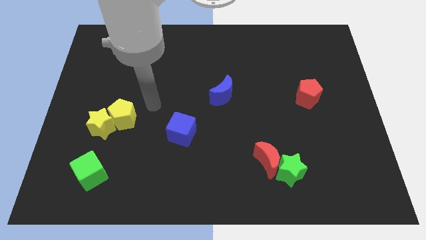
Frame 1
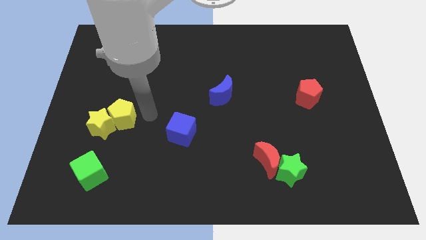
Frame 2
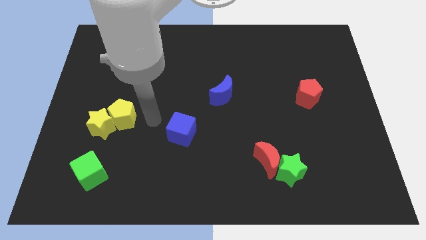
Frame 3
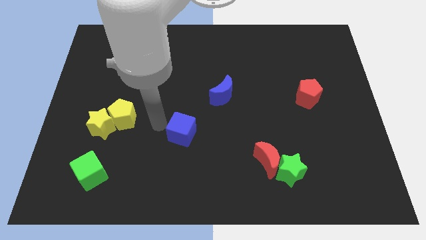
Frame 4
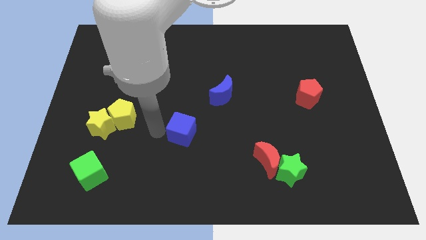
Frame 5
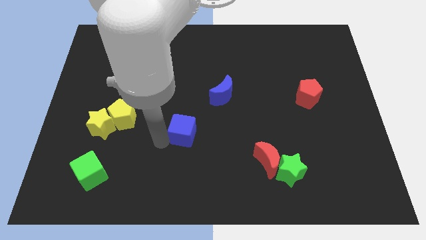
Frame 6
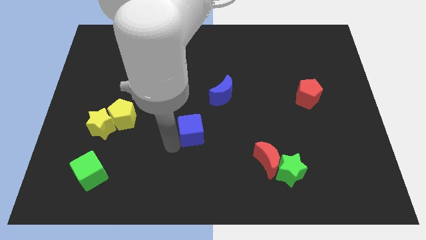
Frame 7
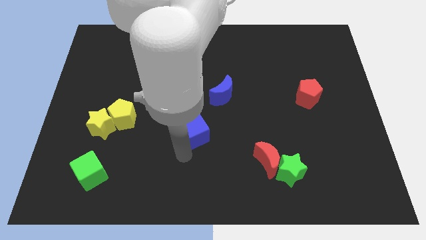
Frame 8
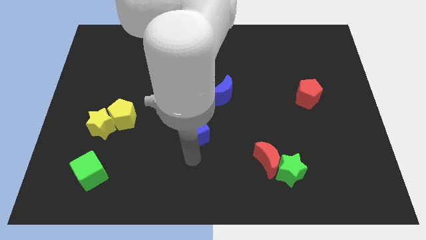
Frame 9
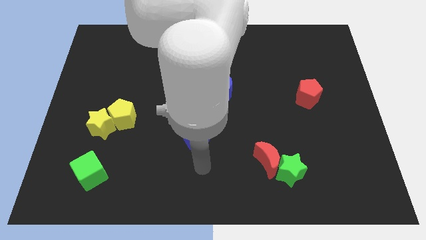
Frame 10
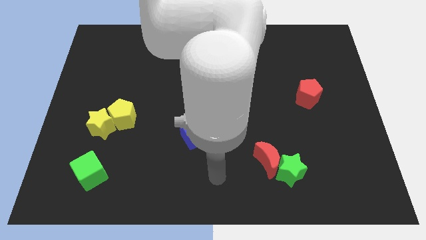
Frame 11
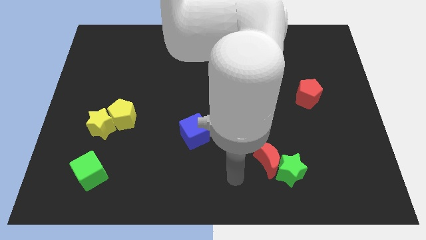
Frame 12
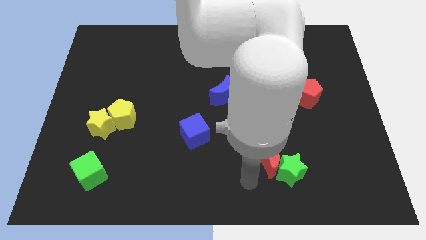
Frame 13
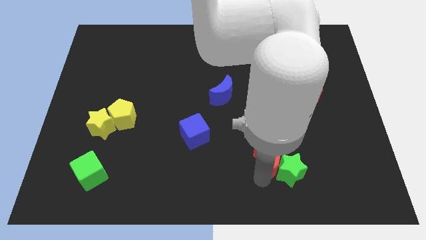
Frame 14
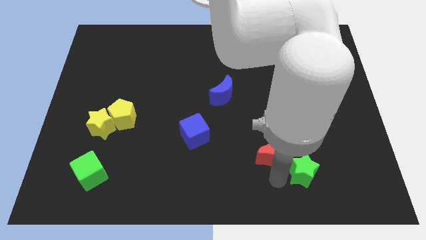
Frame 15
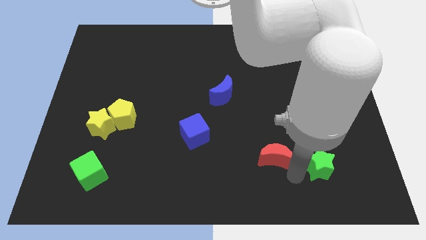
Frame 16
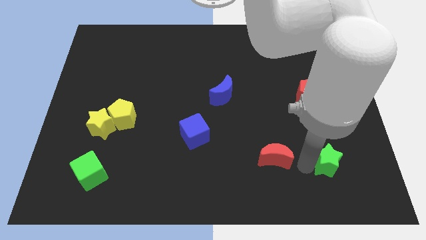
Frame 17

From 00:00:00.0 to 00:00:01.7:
separate the red moon from the green star

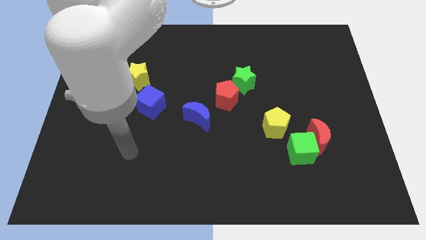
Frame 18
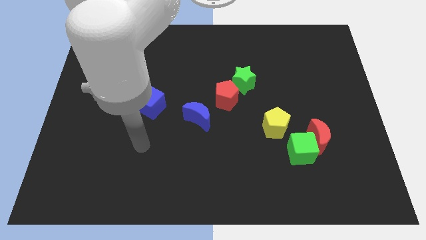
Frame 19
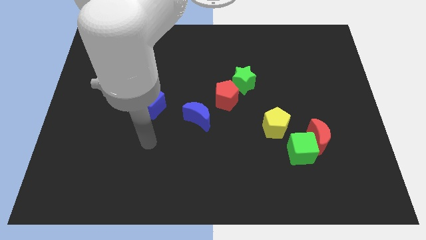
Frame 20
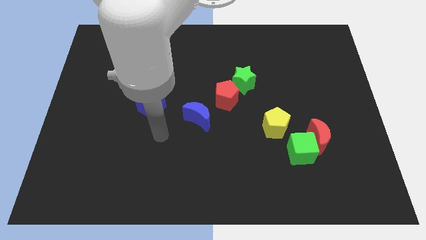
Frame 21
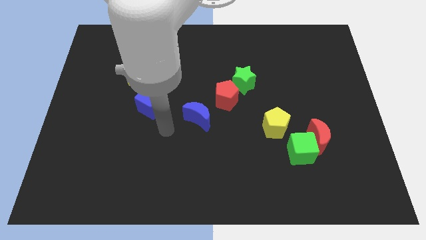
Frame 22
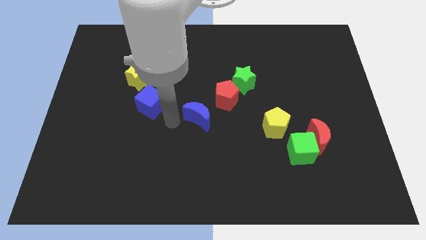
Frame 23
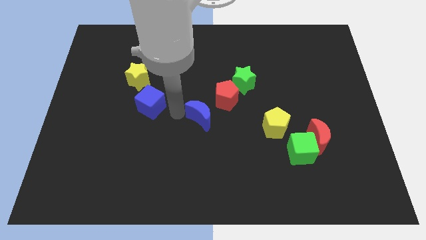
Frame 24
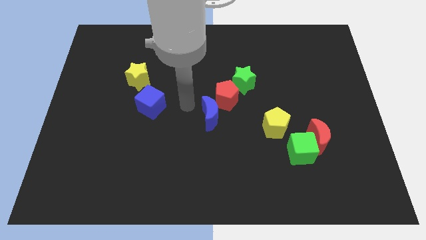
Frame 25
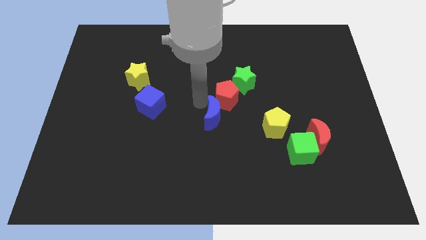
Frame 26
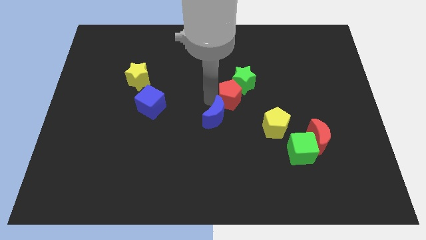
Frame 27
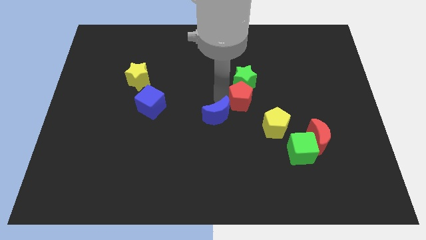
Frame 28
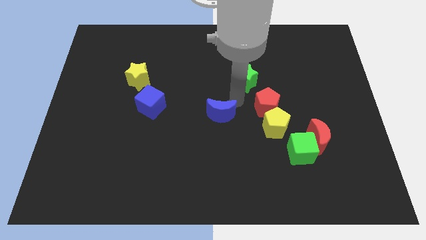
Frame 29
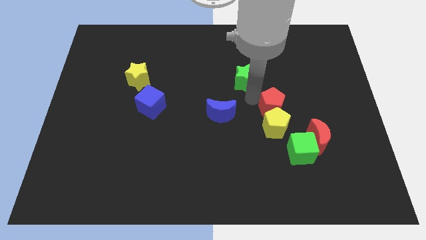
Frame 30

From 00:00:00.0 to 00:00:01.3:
separate the green star from the red pentagon

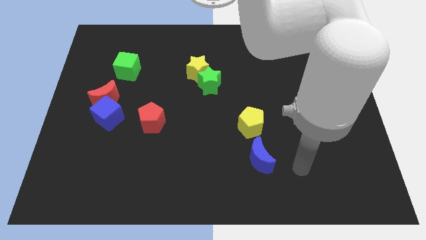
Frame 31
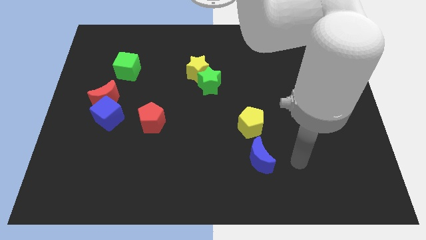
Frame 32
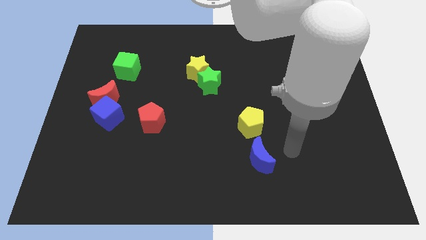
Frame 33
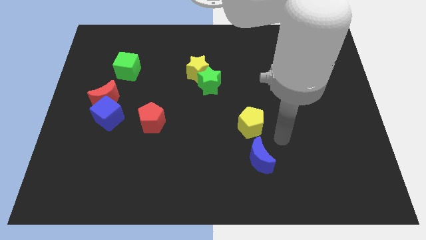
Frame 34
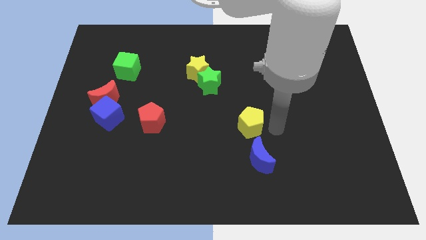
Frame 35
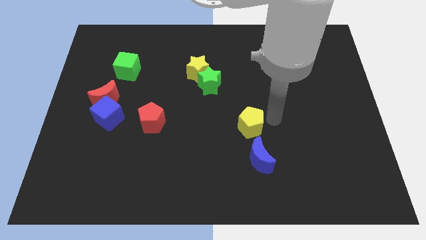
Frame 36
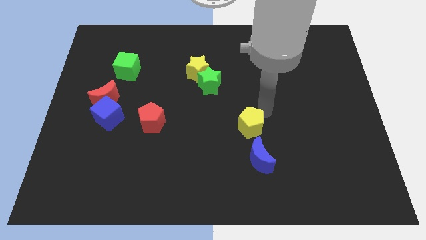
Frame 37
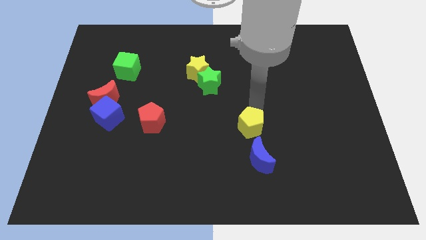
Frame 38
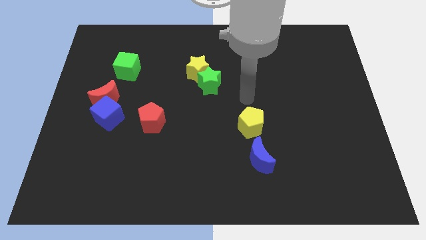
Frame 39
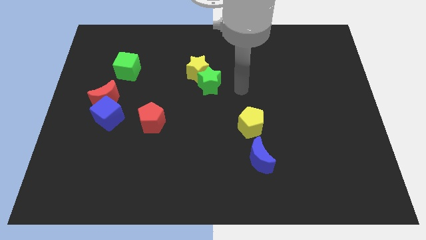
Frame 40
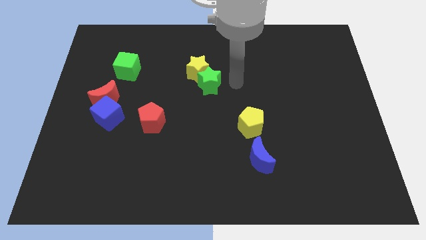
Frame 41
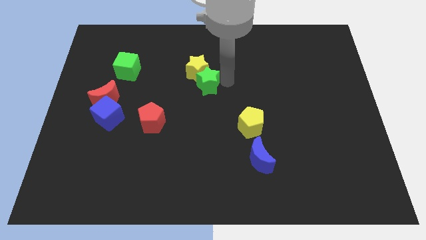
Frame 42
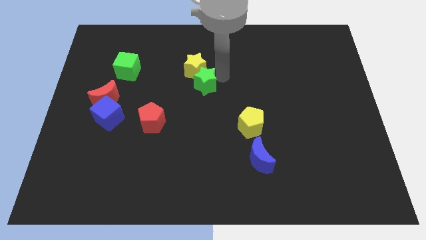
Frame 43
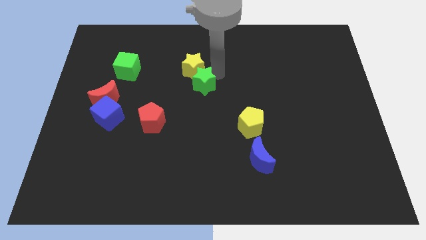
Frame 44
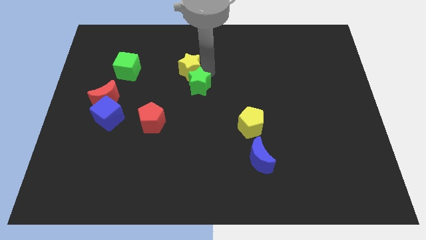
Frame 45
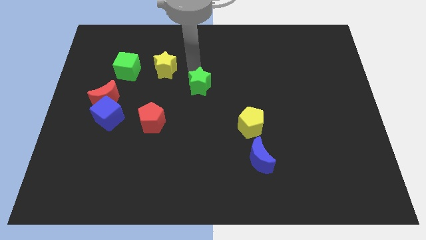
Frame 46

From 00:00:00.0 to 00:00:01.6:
pull the green star apart from the yellow star

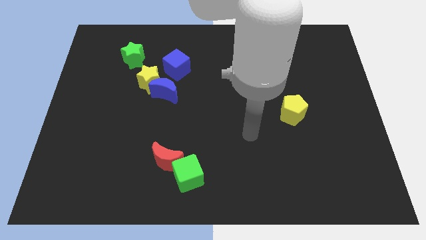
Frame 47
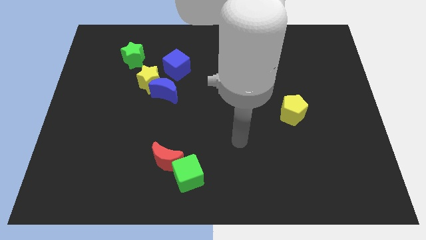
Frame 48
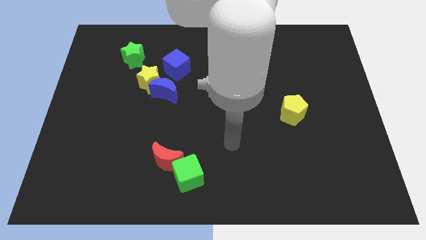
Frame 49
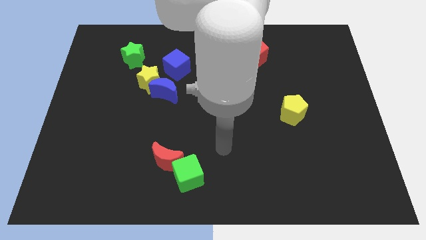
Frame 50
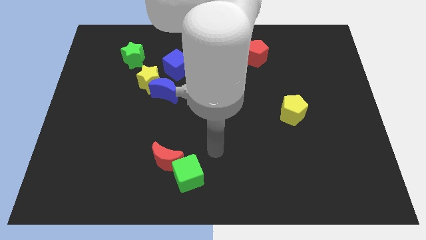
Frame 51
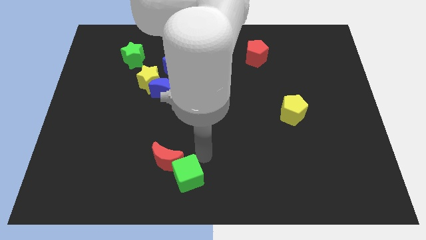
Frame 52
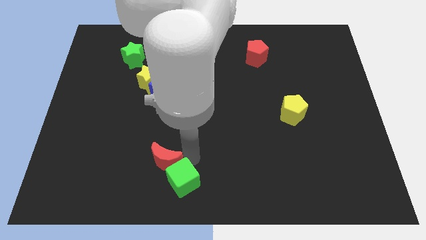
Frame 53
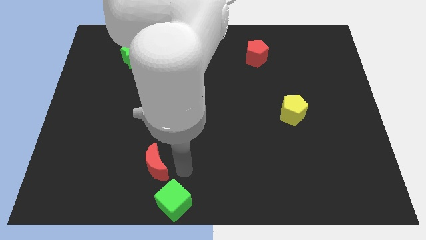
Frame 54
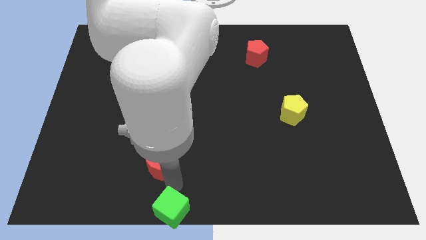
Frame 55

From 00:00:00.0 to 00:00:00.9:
separate the red moon from the green cube

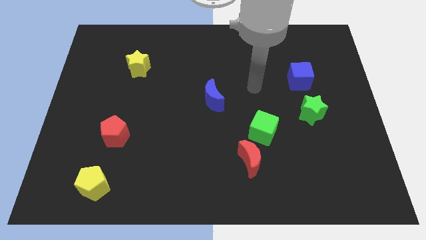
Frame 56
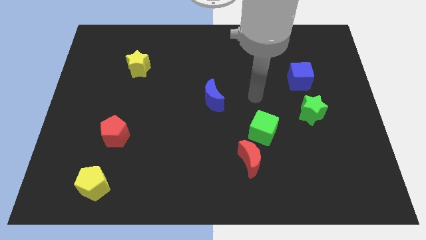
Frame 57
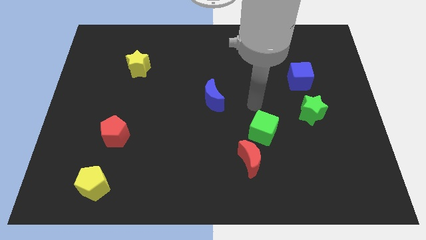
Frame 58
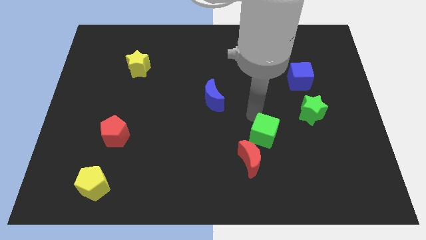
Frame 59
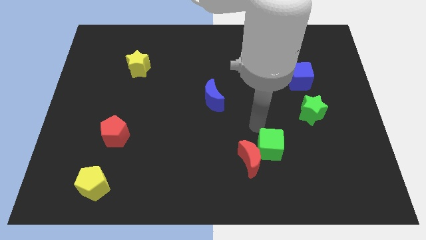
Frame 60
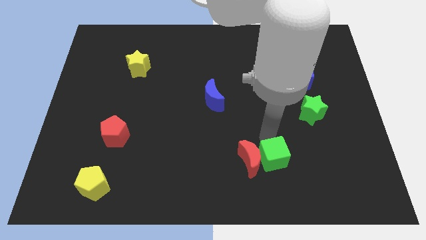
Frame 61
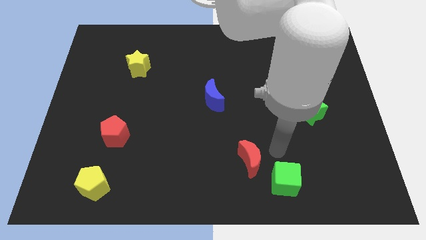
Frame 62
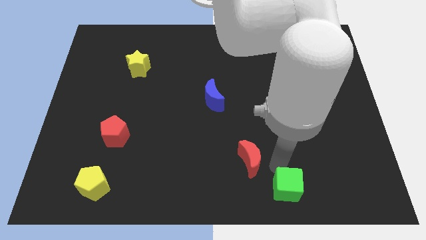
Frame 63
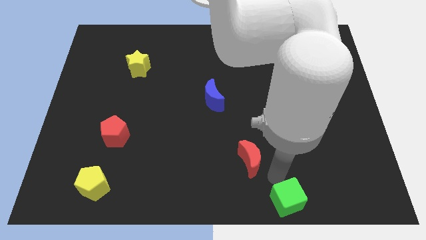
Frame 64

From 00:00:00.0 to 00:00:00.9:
pull the red moon apart from the green cube

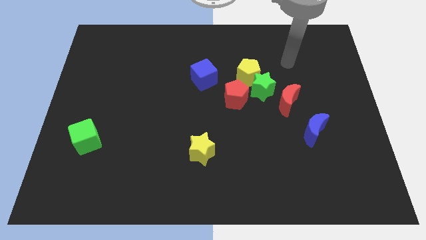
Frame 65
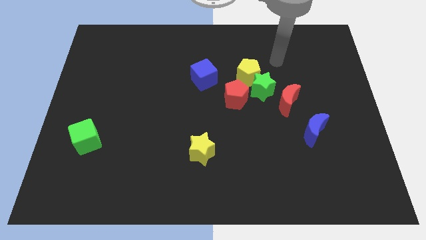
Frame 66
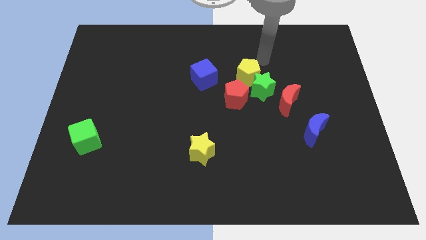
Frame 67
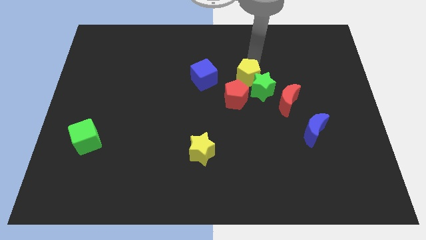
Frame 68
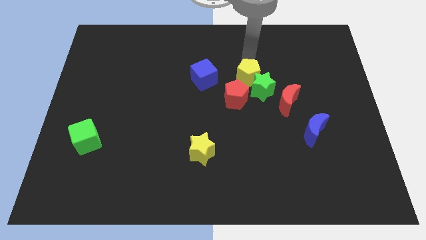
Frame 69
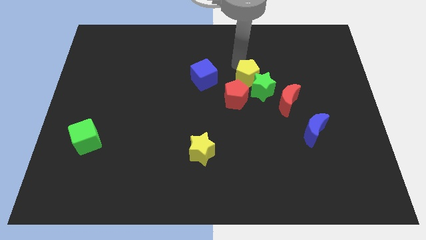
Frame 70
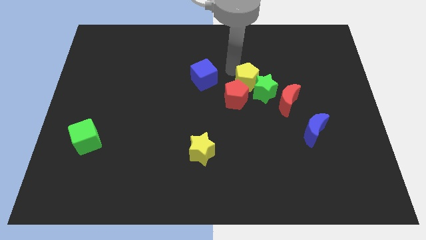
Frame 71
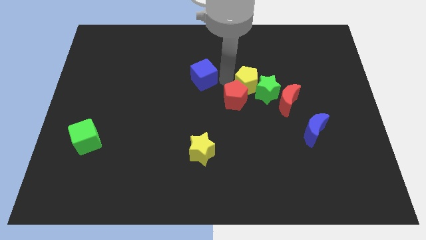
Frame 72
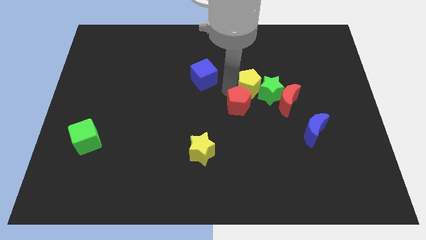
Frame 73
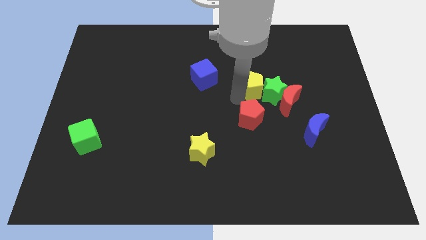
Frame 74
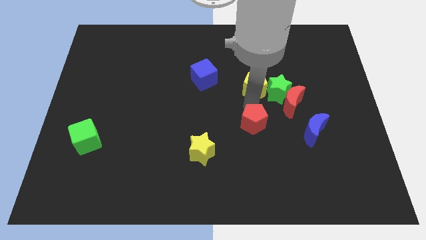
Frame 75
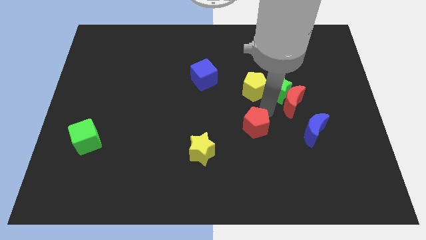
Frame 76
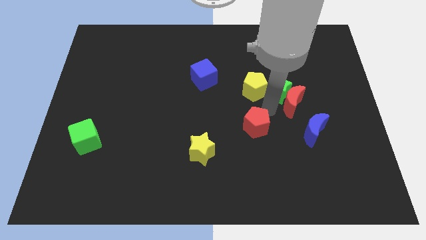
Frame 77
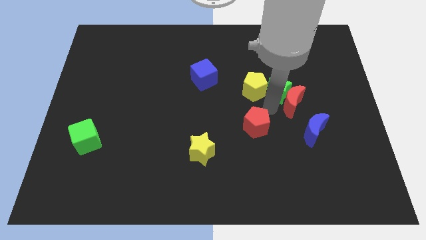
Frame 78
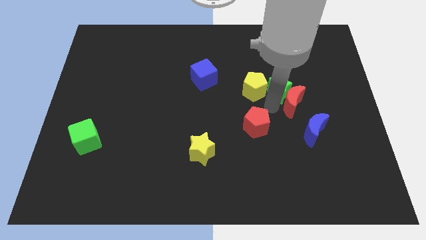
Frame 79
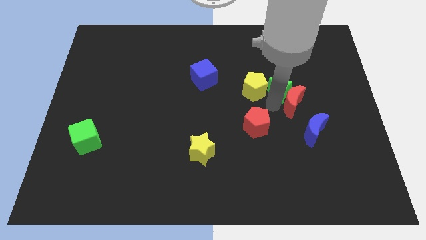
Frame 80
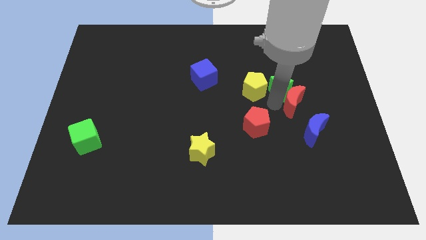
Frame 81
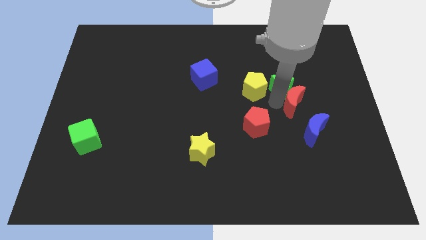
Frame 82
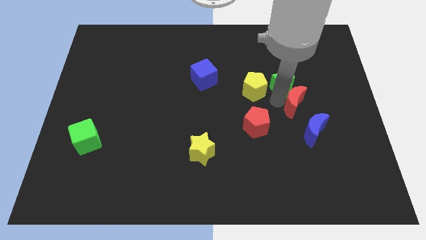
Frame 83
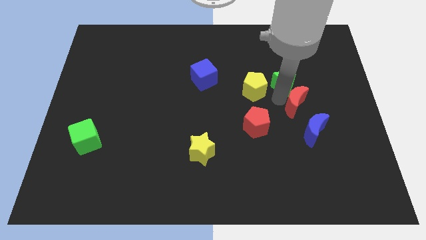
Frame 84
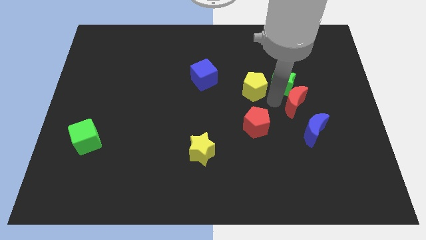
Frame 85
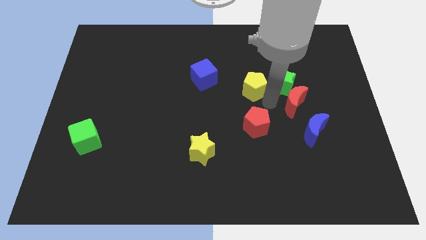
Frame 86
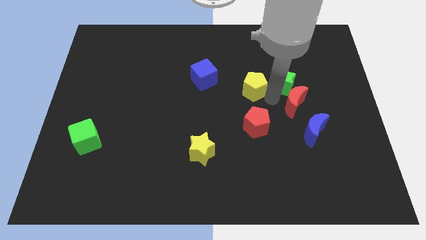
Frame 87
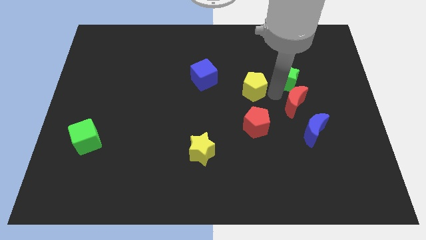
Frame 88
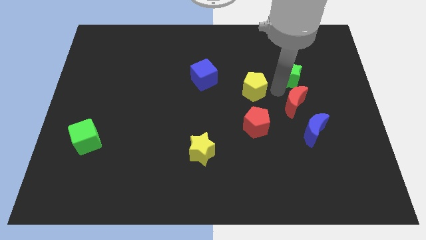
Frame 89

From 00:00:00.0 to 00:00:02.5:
separate the green star from the yellow pentagon, red pentagon, and red moon

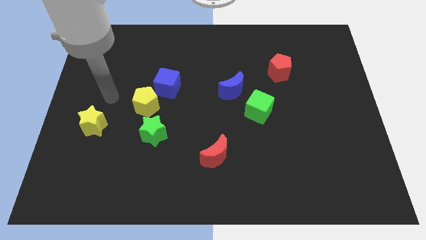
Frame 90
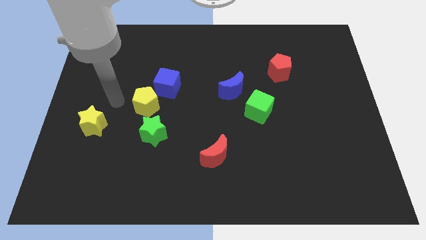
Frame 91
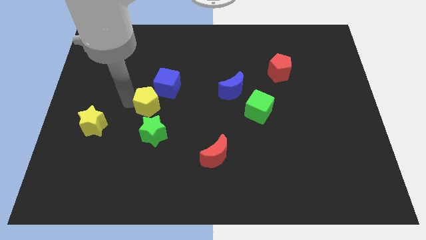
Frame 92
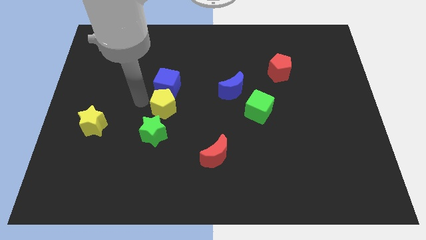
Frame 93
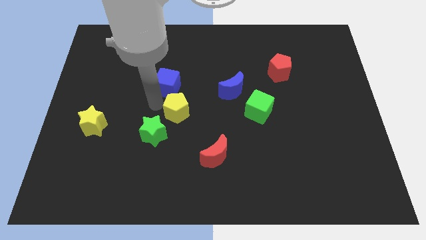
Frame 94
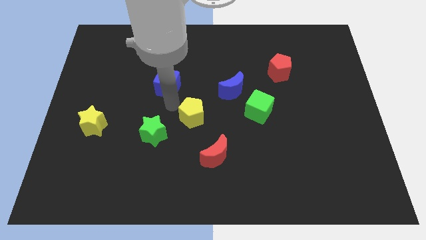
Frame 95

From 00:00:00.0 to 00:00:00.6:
pull the blue cube apart from the yellow pentagon
